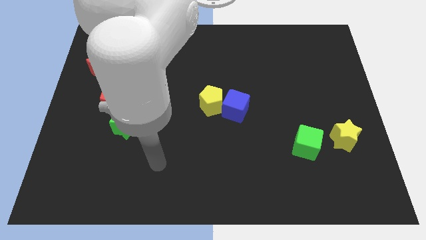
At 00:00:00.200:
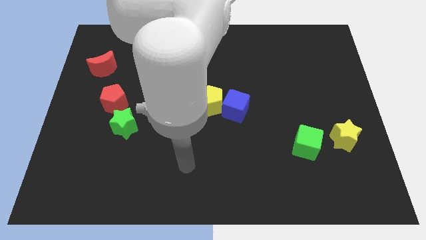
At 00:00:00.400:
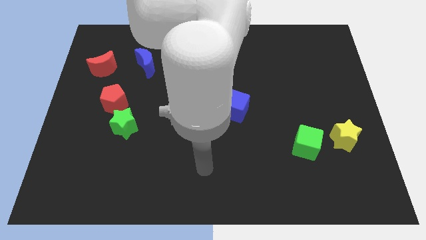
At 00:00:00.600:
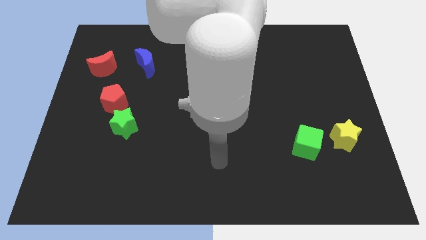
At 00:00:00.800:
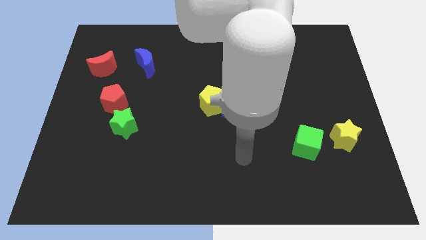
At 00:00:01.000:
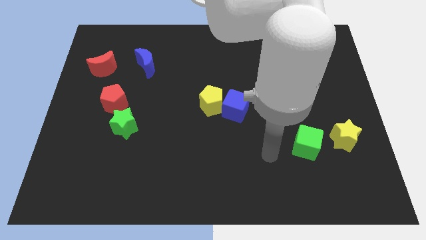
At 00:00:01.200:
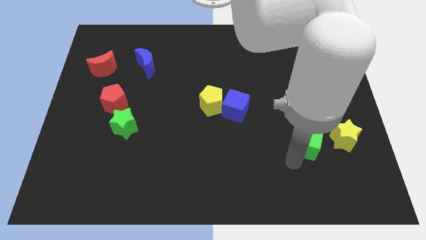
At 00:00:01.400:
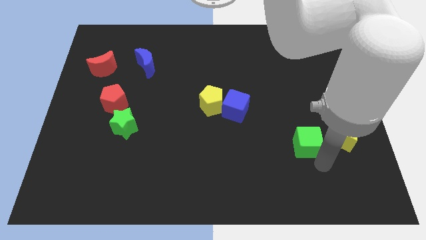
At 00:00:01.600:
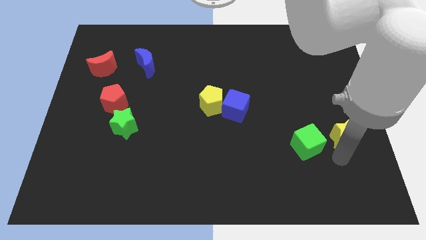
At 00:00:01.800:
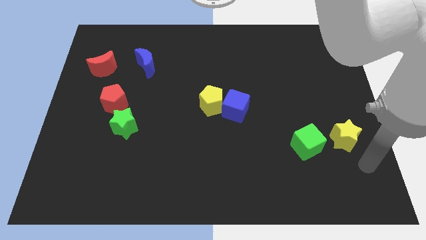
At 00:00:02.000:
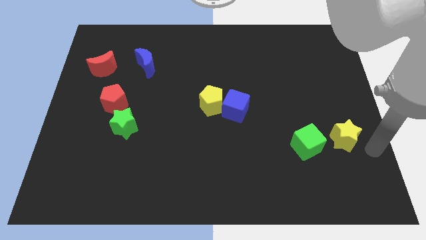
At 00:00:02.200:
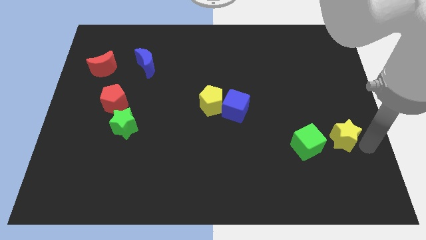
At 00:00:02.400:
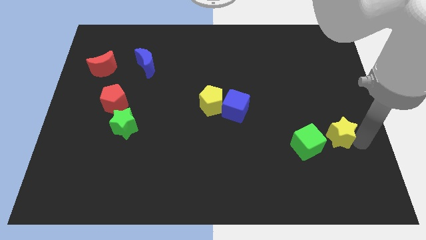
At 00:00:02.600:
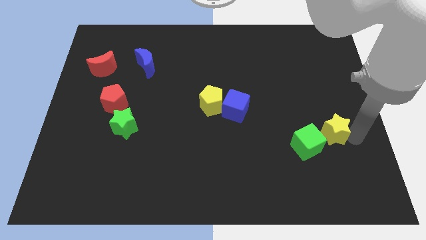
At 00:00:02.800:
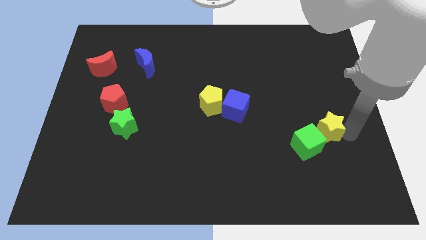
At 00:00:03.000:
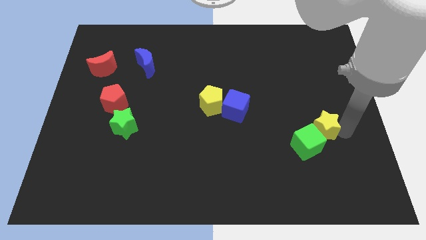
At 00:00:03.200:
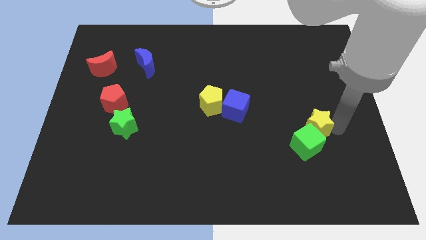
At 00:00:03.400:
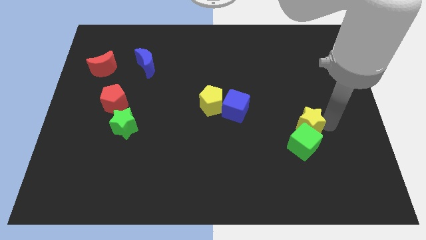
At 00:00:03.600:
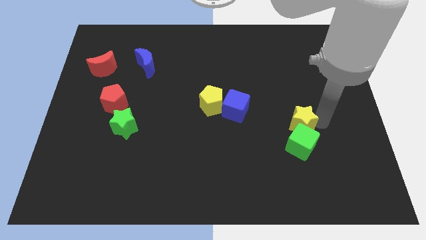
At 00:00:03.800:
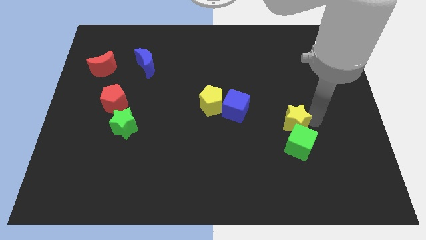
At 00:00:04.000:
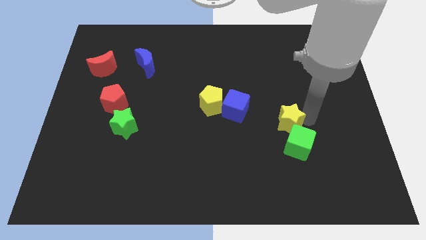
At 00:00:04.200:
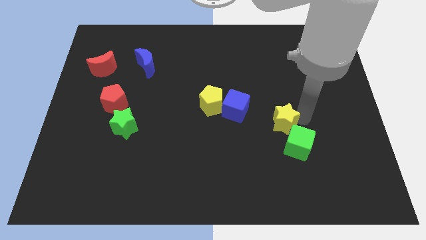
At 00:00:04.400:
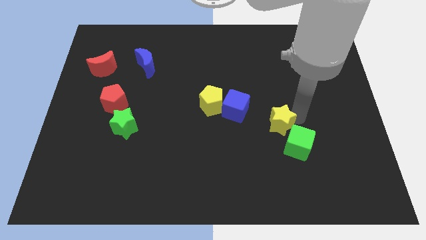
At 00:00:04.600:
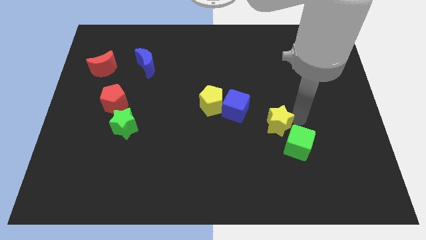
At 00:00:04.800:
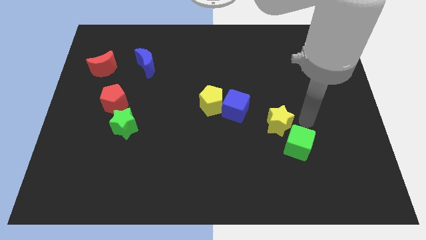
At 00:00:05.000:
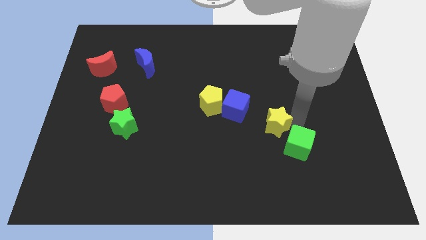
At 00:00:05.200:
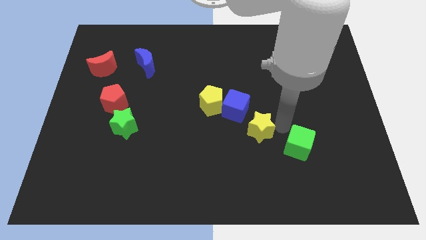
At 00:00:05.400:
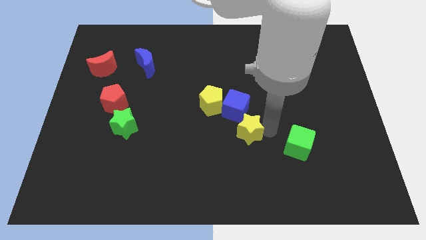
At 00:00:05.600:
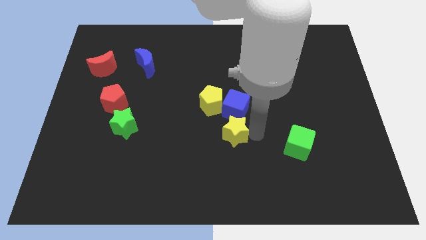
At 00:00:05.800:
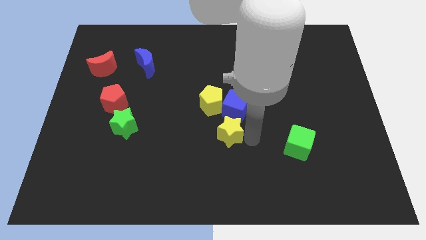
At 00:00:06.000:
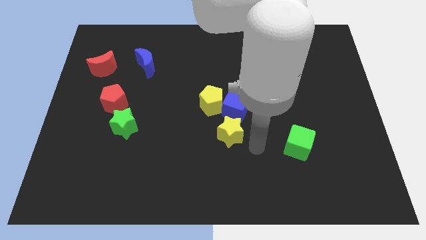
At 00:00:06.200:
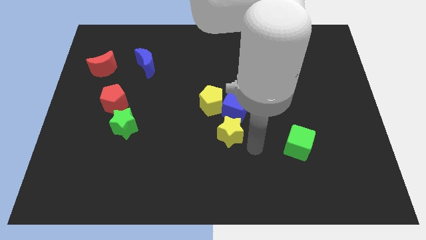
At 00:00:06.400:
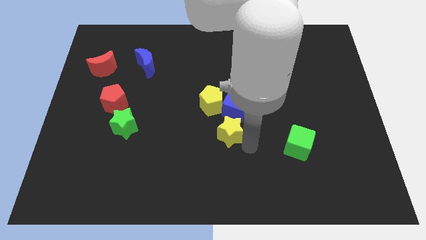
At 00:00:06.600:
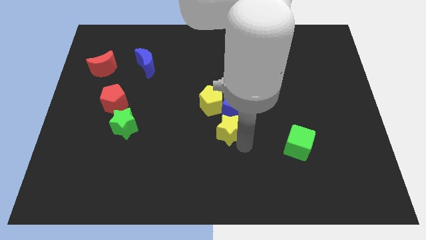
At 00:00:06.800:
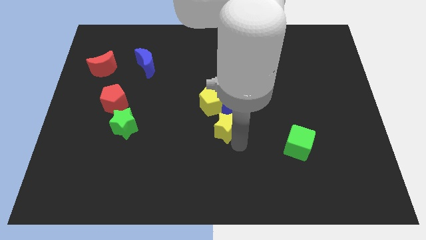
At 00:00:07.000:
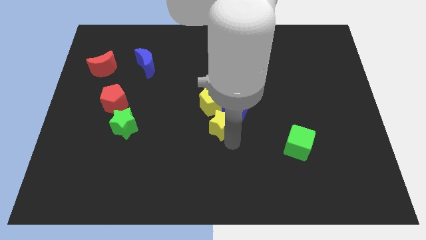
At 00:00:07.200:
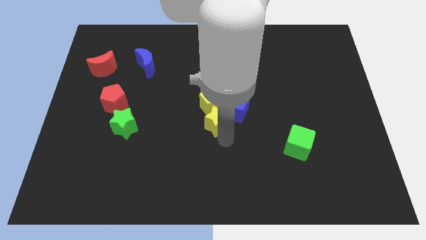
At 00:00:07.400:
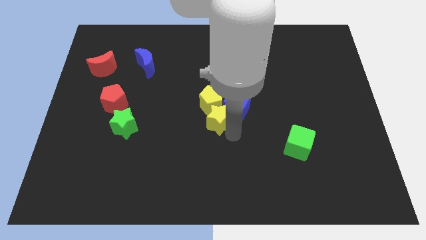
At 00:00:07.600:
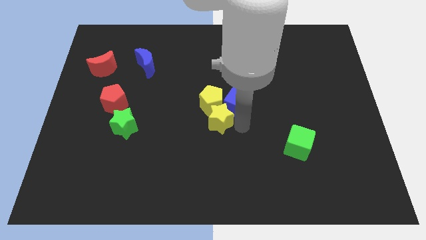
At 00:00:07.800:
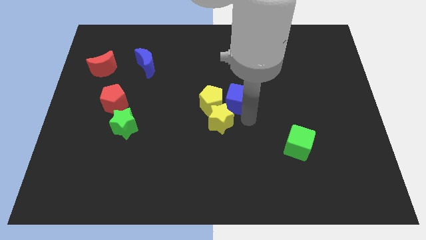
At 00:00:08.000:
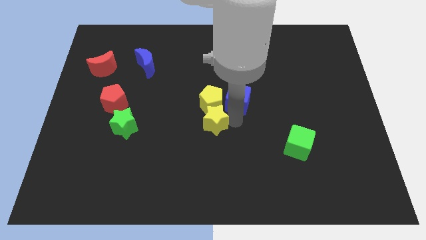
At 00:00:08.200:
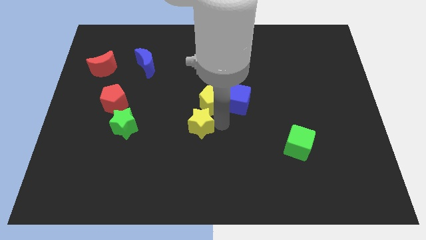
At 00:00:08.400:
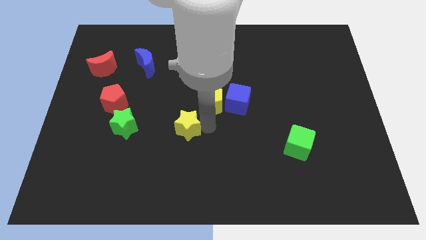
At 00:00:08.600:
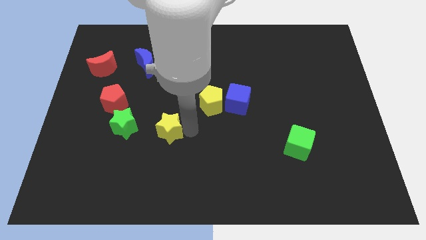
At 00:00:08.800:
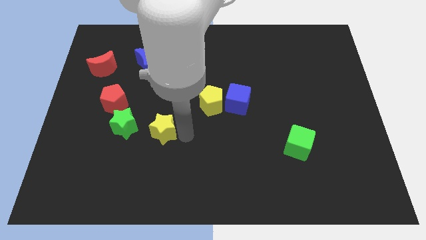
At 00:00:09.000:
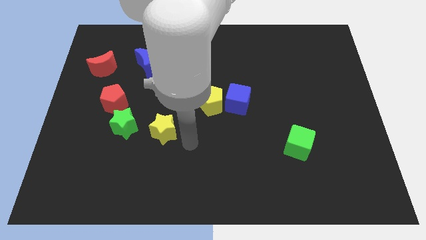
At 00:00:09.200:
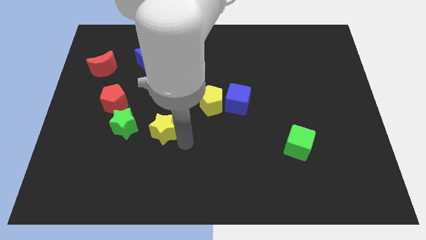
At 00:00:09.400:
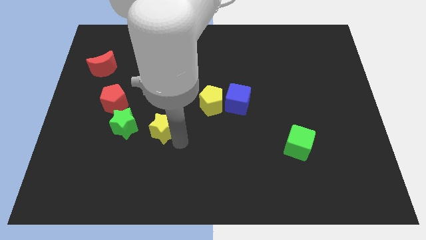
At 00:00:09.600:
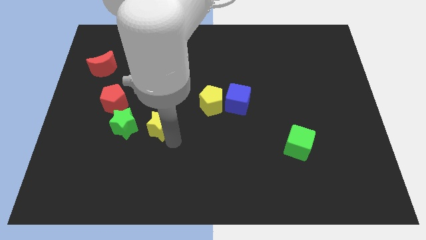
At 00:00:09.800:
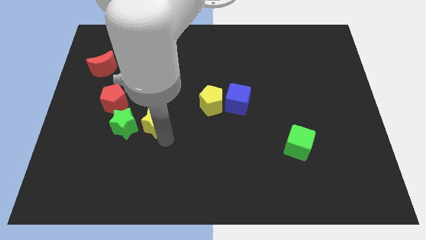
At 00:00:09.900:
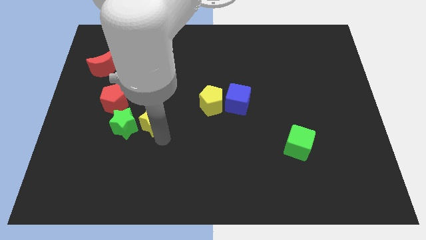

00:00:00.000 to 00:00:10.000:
push the yellow star towards the green star

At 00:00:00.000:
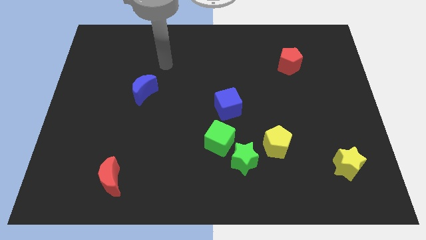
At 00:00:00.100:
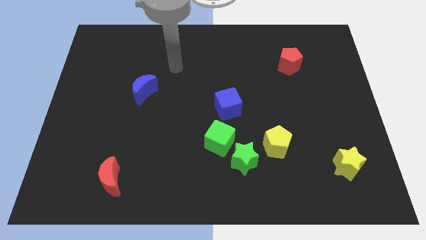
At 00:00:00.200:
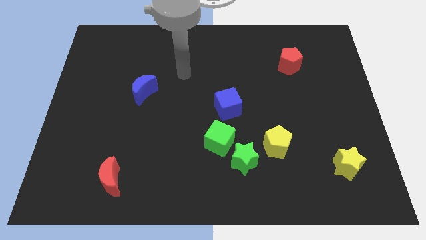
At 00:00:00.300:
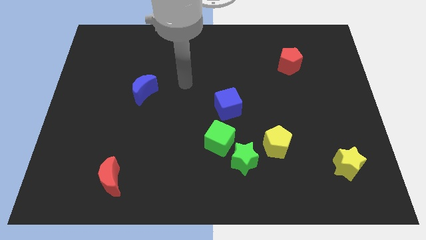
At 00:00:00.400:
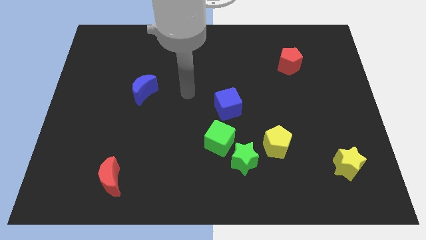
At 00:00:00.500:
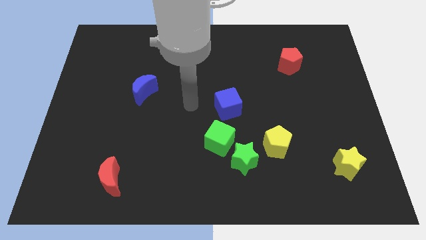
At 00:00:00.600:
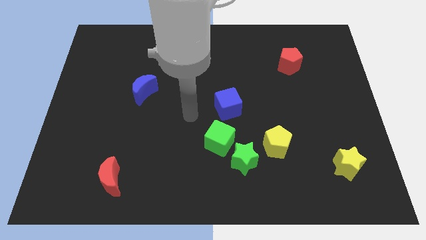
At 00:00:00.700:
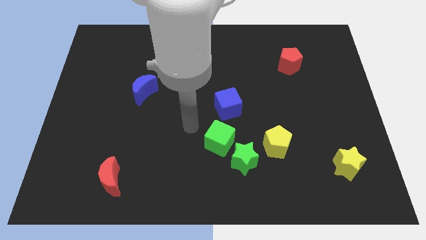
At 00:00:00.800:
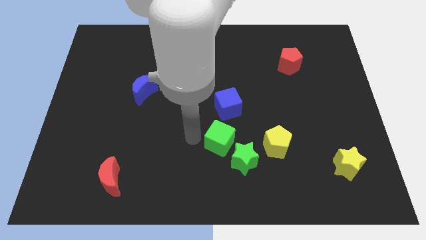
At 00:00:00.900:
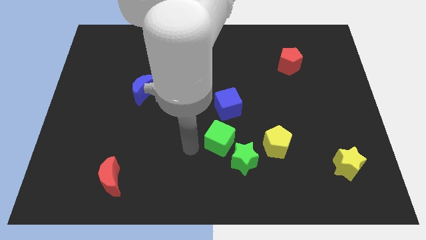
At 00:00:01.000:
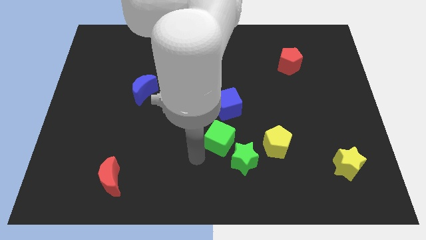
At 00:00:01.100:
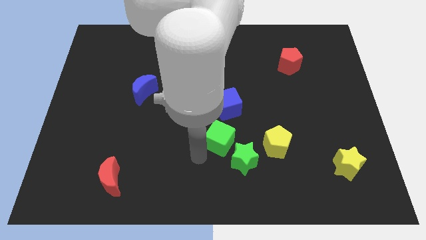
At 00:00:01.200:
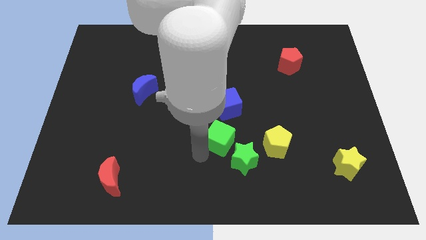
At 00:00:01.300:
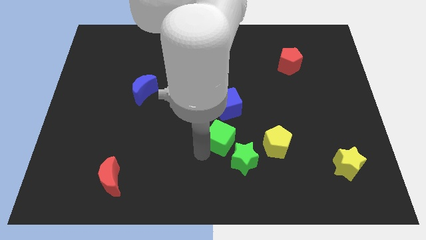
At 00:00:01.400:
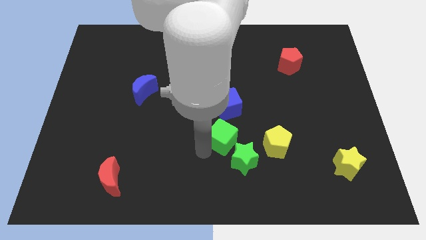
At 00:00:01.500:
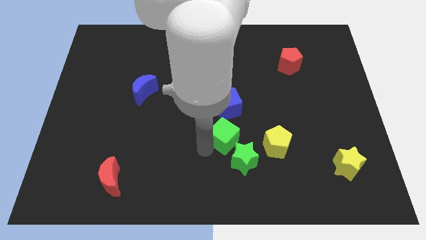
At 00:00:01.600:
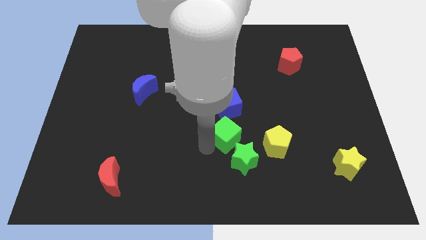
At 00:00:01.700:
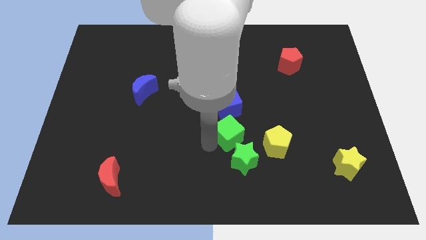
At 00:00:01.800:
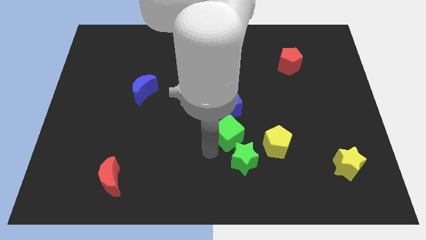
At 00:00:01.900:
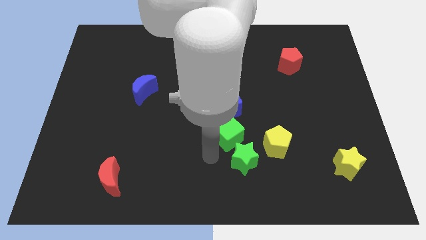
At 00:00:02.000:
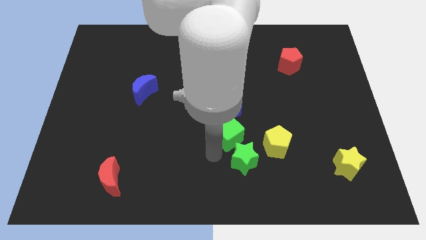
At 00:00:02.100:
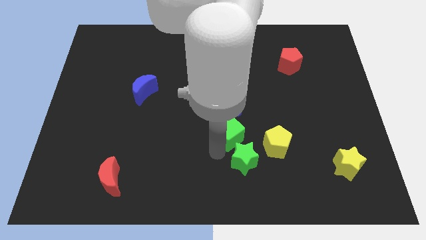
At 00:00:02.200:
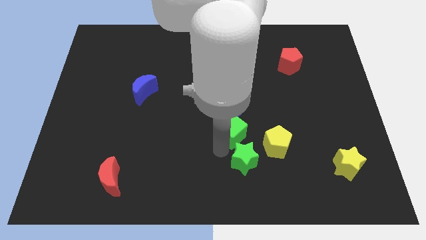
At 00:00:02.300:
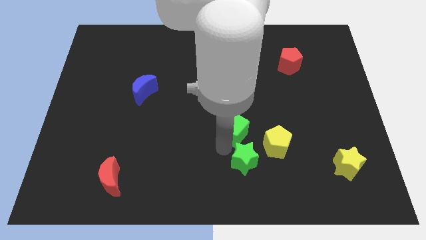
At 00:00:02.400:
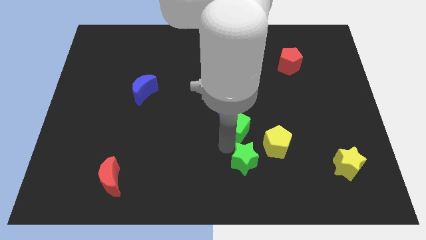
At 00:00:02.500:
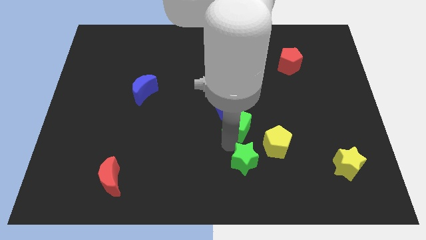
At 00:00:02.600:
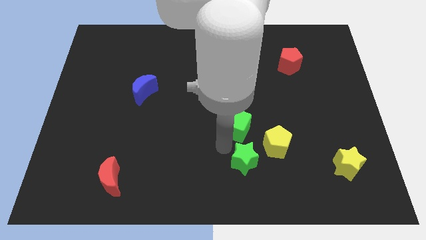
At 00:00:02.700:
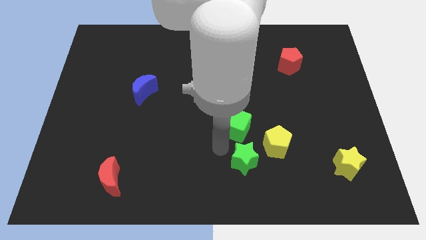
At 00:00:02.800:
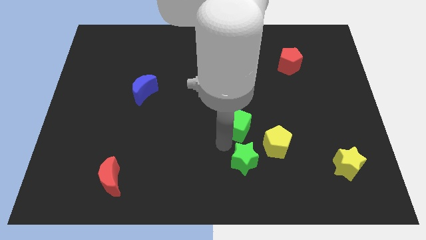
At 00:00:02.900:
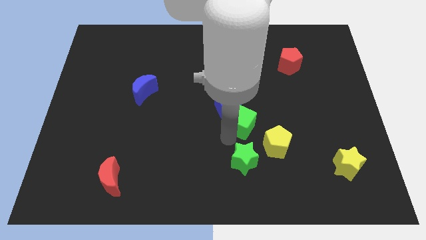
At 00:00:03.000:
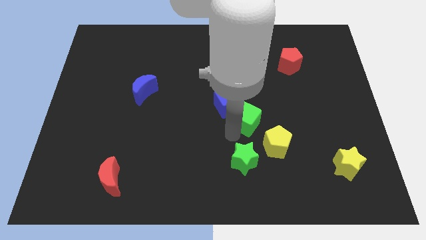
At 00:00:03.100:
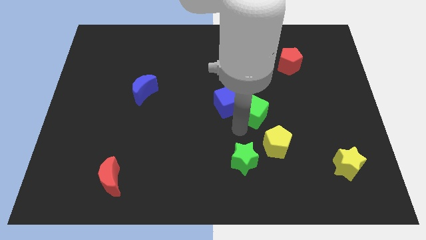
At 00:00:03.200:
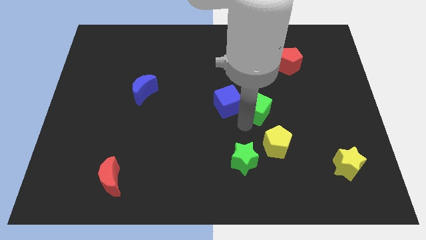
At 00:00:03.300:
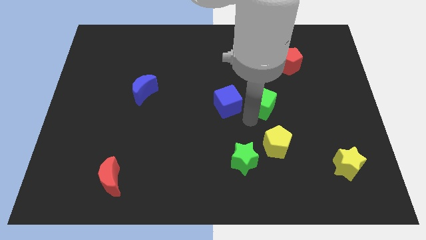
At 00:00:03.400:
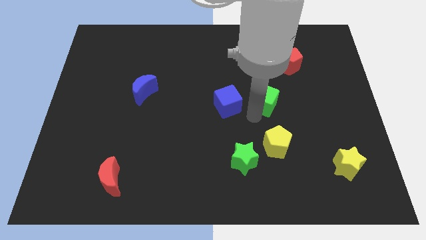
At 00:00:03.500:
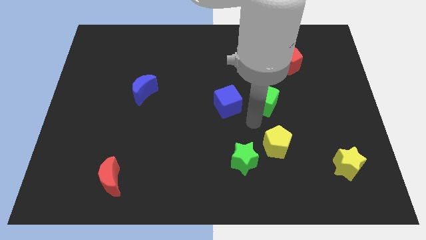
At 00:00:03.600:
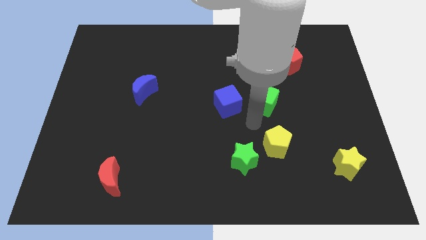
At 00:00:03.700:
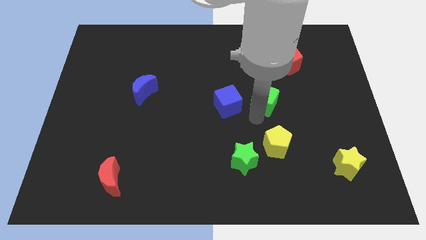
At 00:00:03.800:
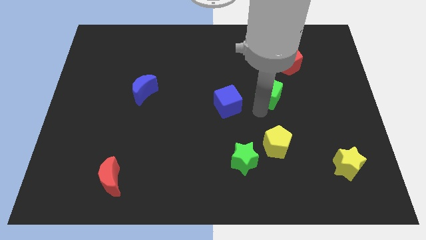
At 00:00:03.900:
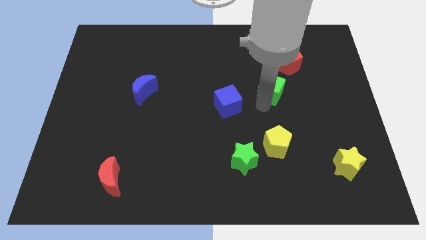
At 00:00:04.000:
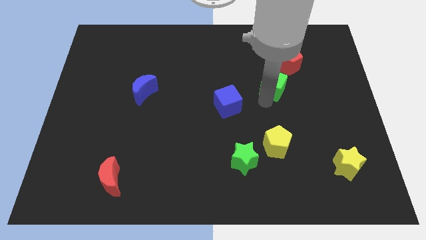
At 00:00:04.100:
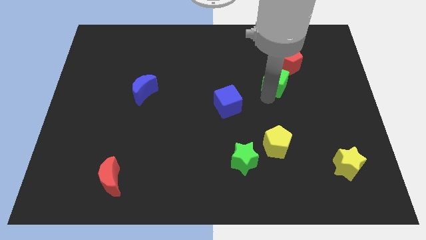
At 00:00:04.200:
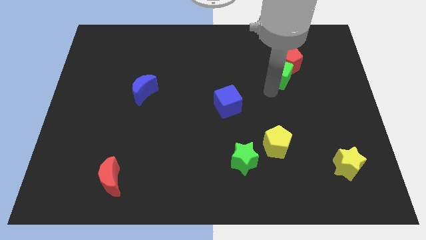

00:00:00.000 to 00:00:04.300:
put the green cube next to the red pentagon
